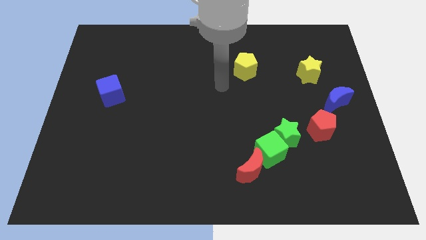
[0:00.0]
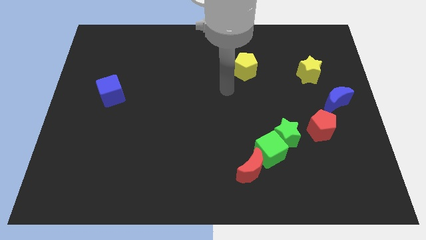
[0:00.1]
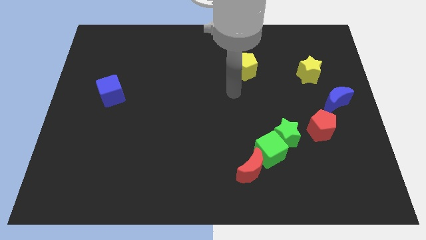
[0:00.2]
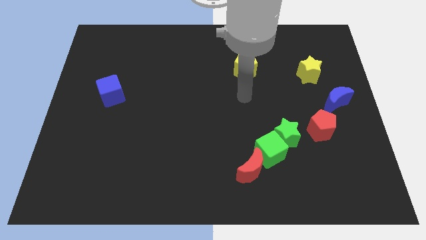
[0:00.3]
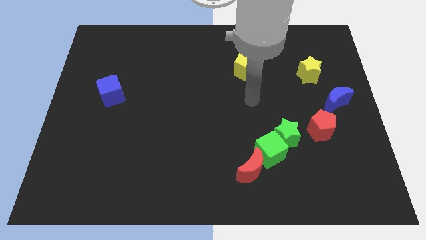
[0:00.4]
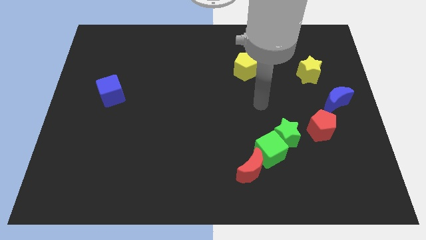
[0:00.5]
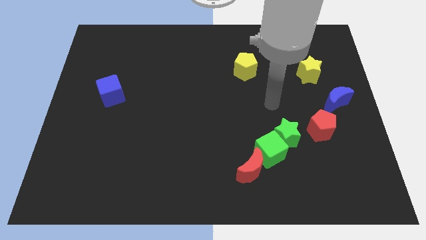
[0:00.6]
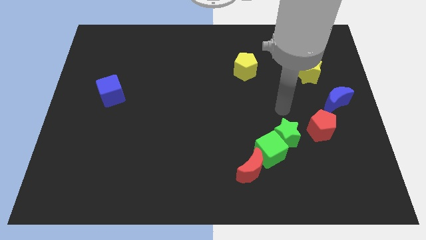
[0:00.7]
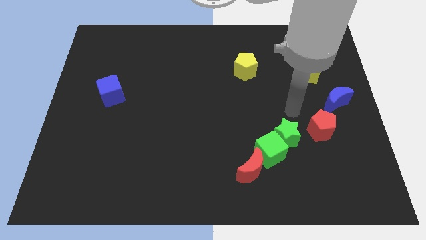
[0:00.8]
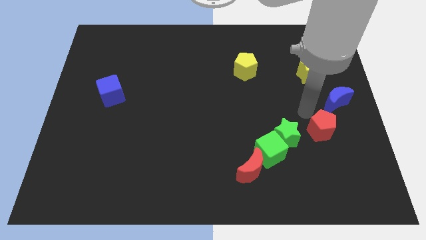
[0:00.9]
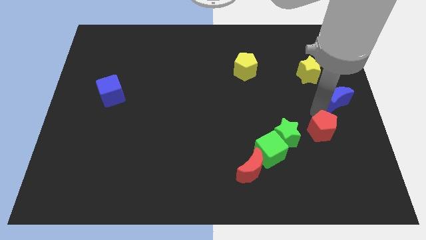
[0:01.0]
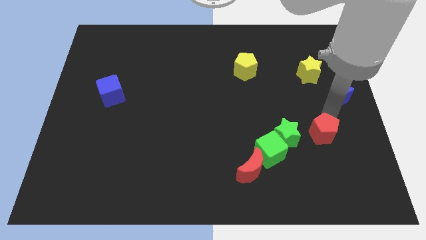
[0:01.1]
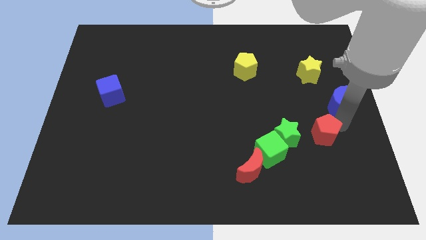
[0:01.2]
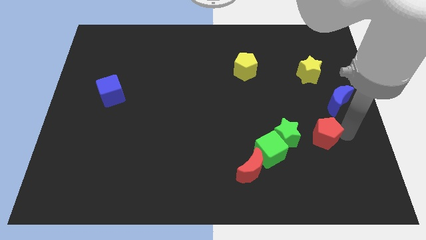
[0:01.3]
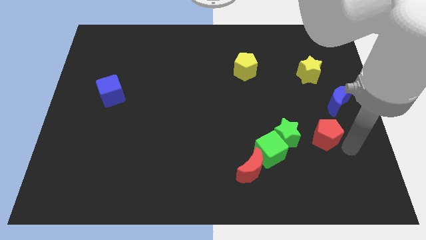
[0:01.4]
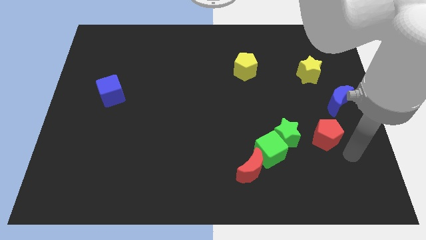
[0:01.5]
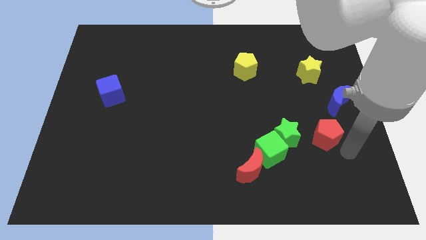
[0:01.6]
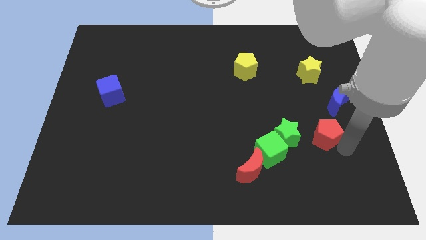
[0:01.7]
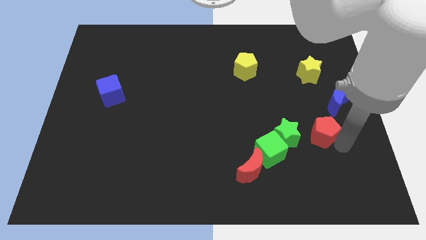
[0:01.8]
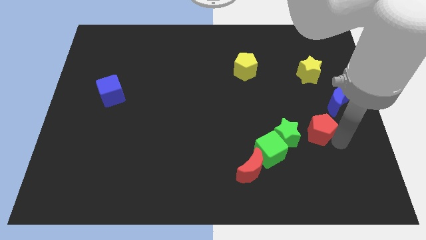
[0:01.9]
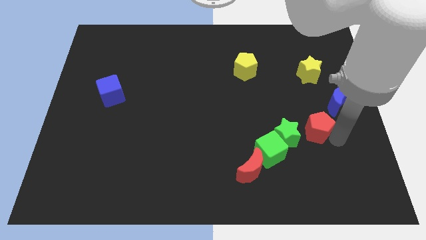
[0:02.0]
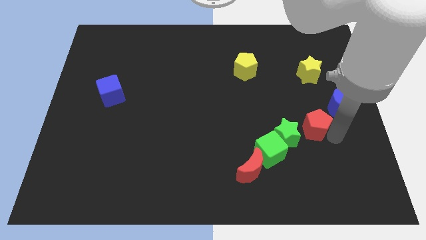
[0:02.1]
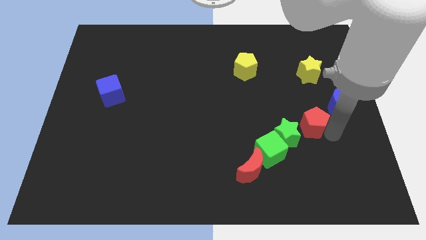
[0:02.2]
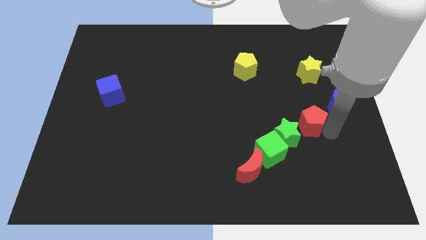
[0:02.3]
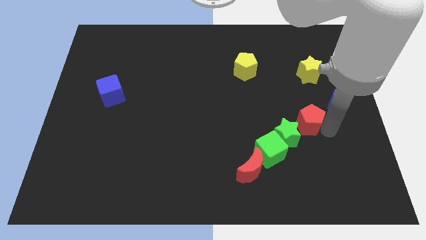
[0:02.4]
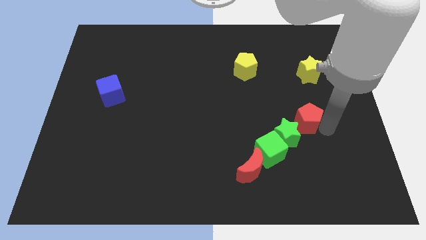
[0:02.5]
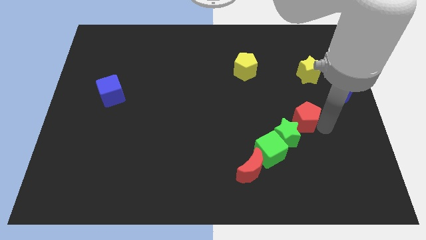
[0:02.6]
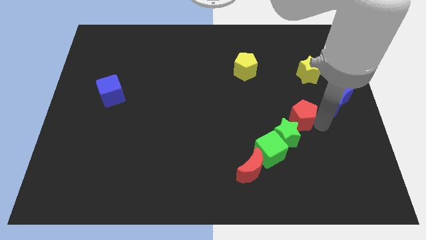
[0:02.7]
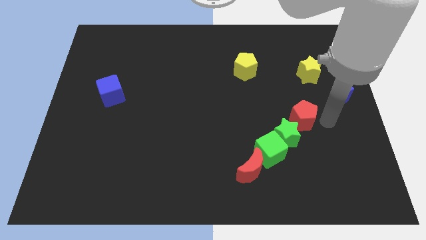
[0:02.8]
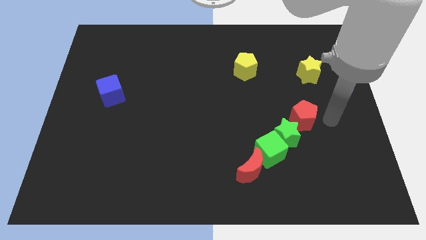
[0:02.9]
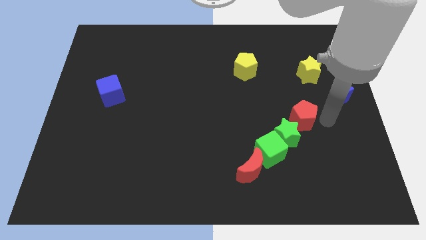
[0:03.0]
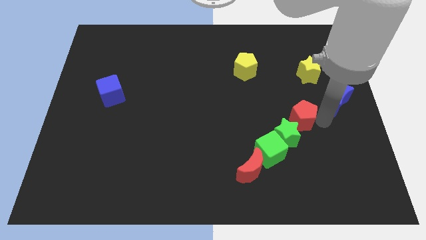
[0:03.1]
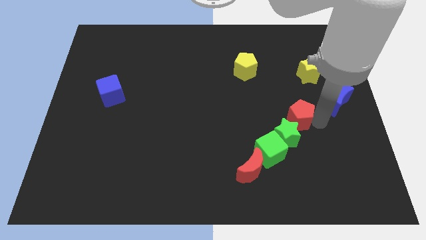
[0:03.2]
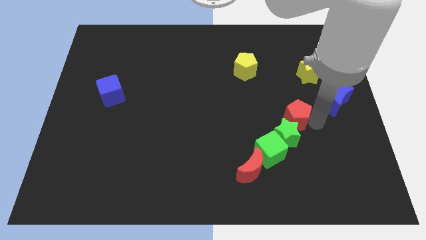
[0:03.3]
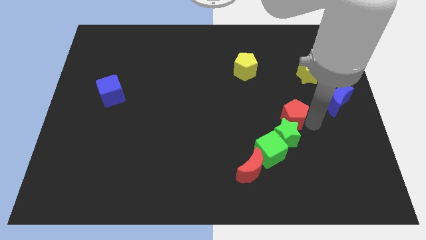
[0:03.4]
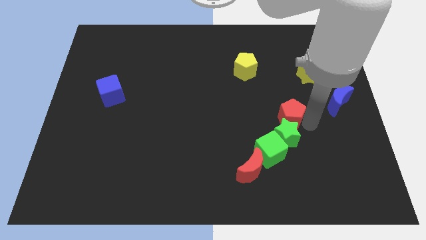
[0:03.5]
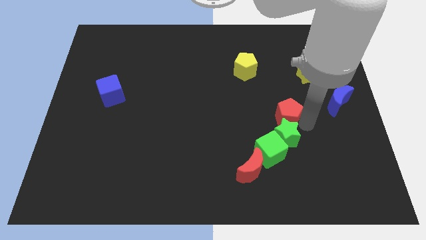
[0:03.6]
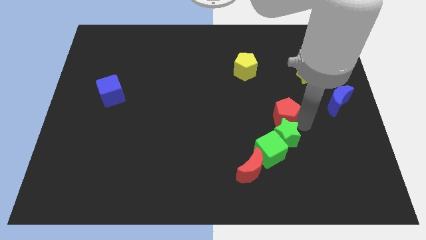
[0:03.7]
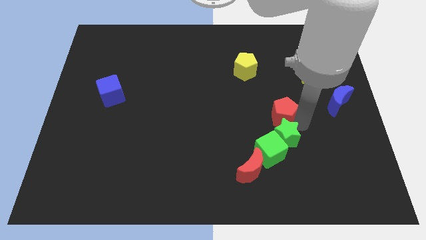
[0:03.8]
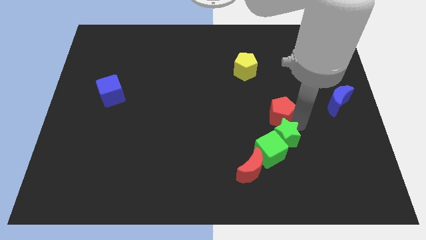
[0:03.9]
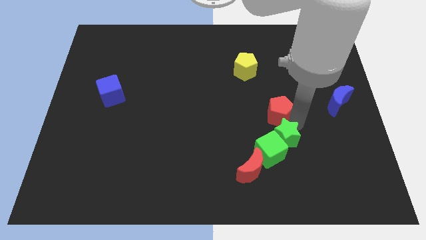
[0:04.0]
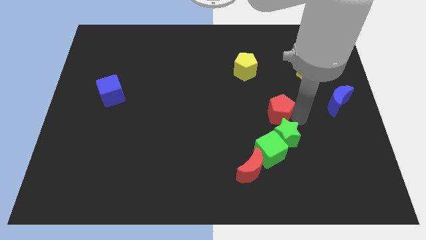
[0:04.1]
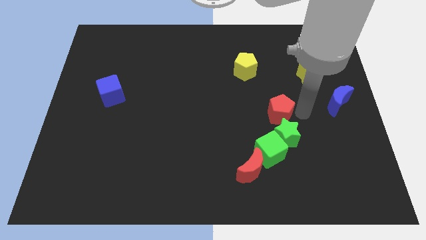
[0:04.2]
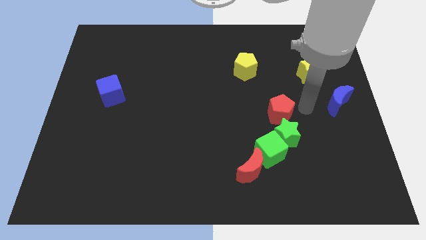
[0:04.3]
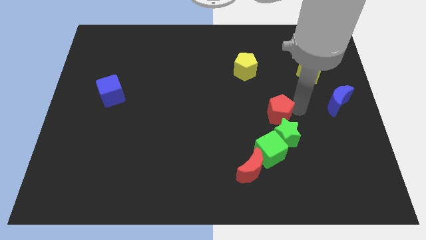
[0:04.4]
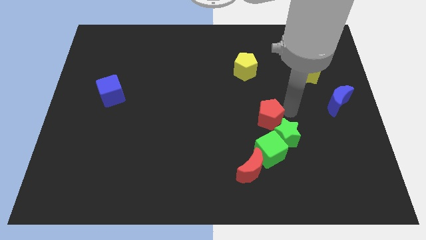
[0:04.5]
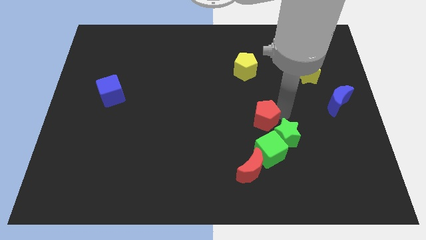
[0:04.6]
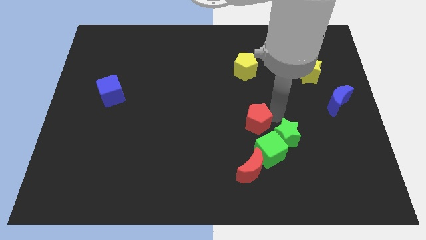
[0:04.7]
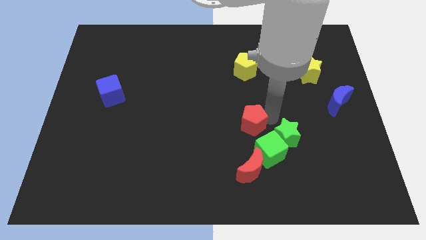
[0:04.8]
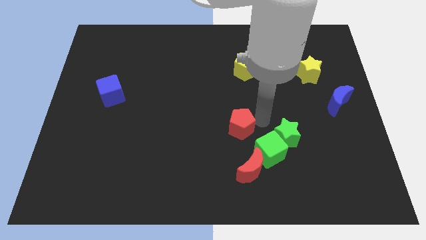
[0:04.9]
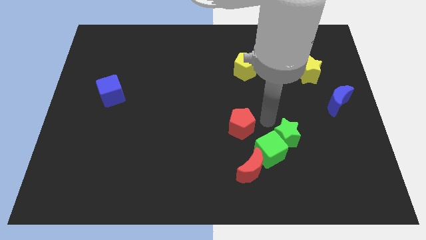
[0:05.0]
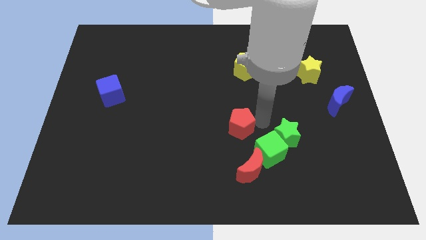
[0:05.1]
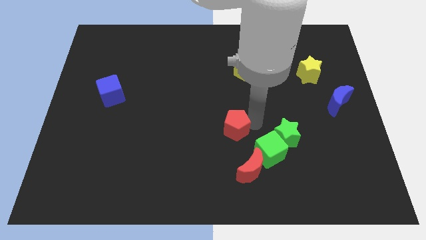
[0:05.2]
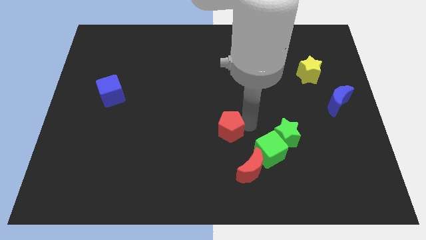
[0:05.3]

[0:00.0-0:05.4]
push the red pentagon to the left

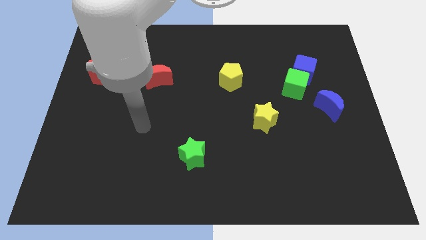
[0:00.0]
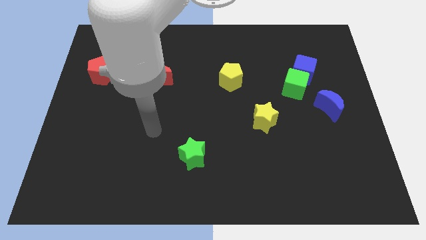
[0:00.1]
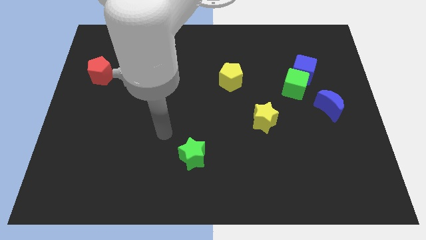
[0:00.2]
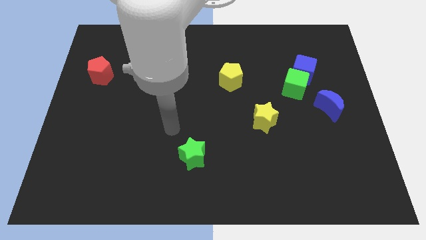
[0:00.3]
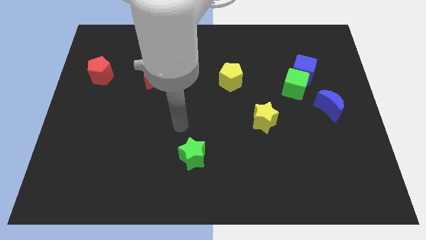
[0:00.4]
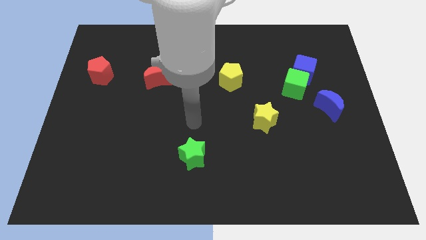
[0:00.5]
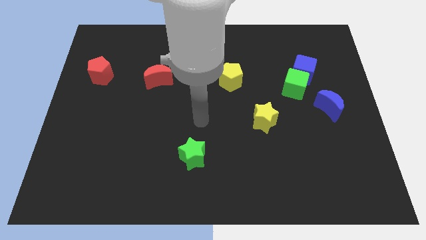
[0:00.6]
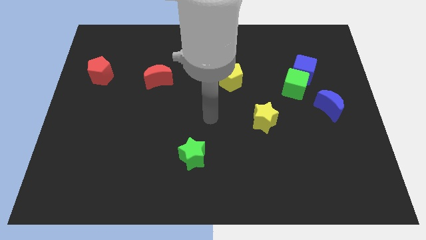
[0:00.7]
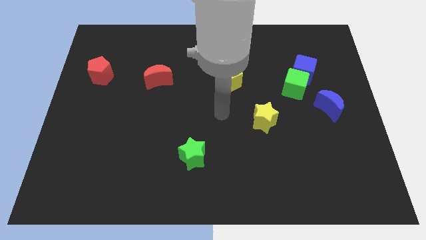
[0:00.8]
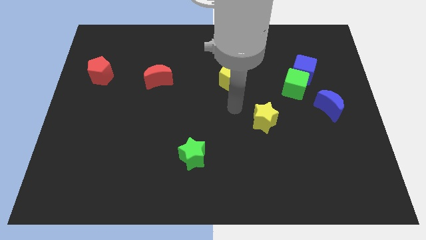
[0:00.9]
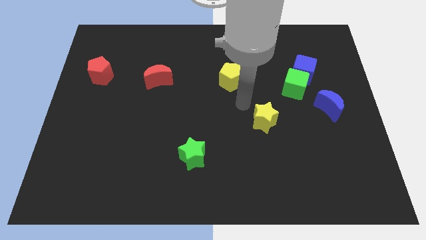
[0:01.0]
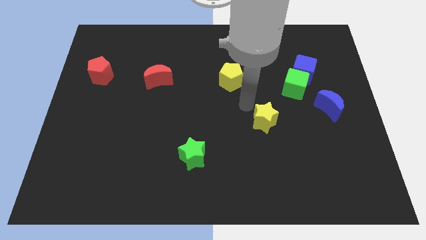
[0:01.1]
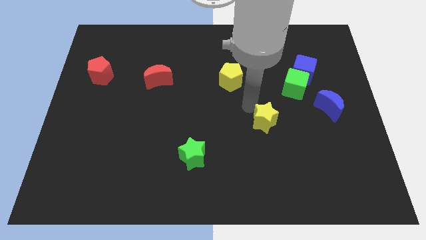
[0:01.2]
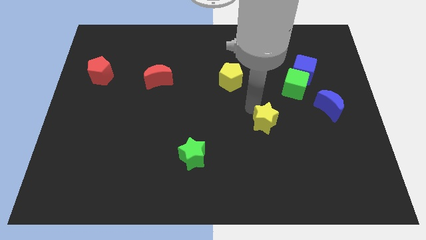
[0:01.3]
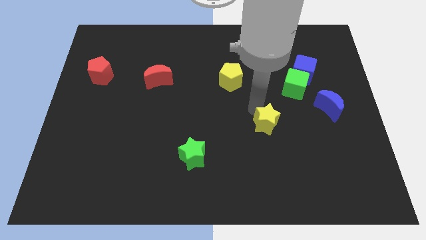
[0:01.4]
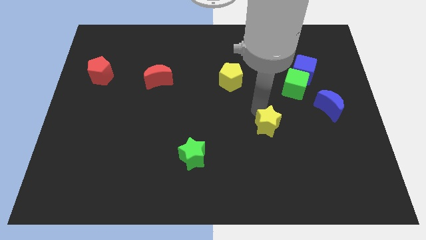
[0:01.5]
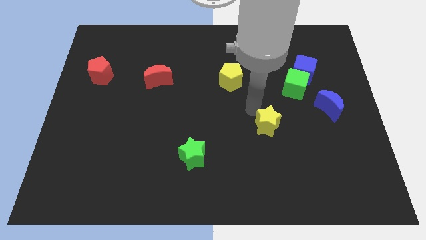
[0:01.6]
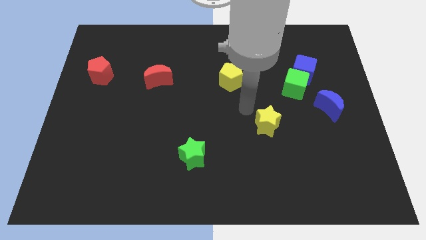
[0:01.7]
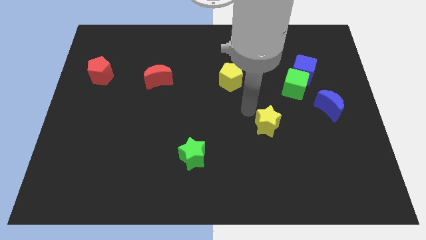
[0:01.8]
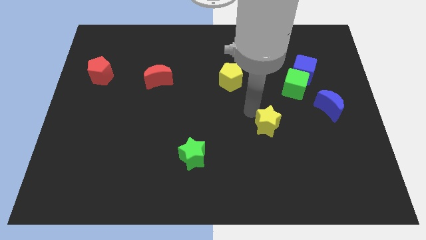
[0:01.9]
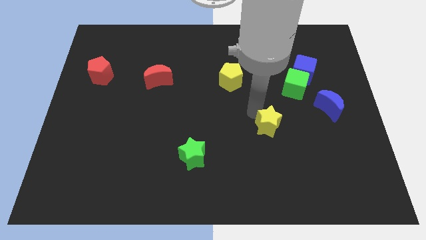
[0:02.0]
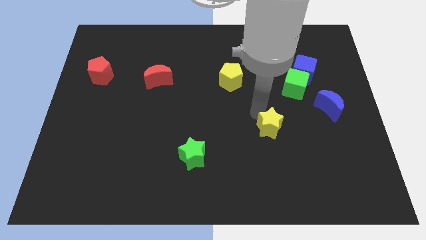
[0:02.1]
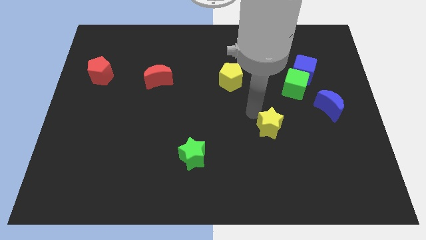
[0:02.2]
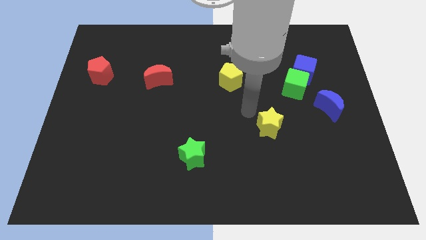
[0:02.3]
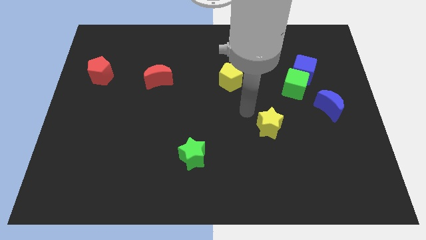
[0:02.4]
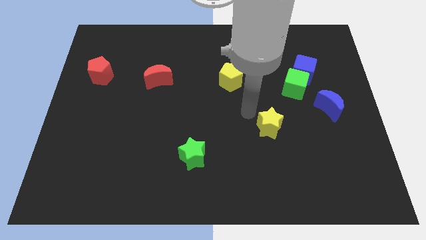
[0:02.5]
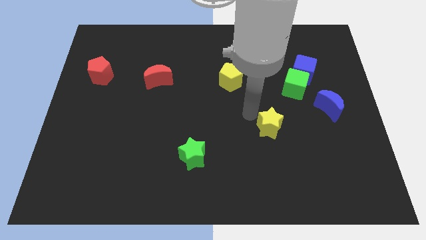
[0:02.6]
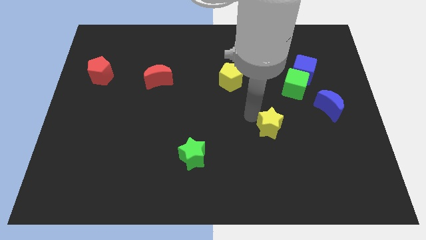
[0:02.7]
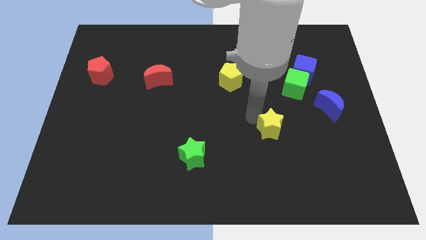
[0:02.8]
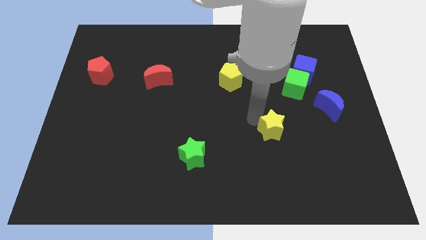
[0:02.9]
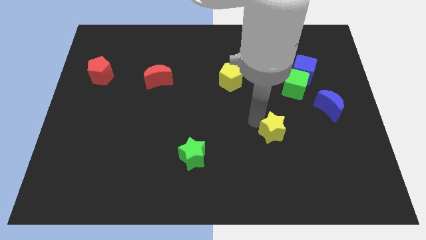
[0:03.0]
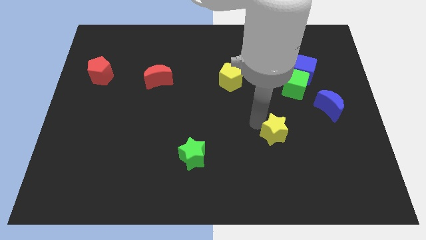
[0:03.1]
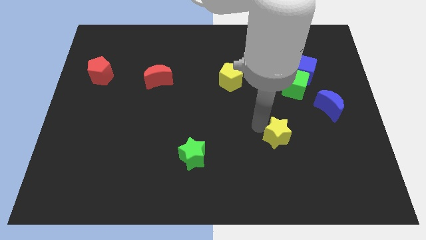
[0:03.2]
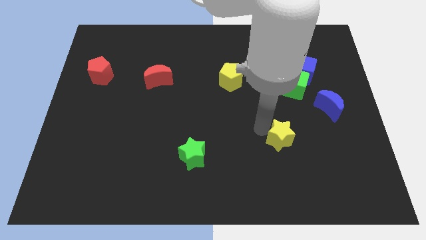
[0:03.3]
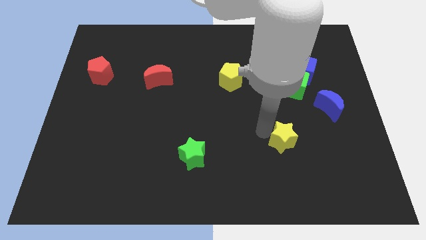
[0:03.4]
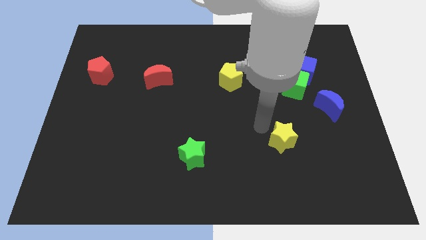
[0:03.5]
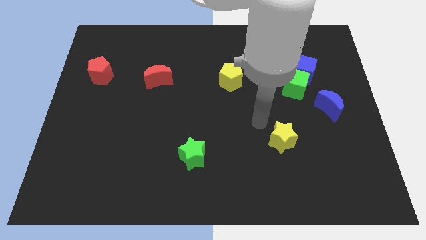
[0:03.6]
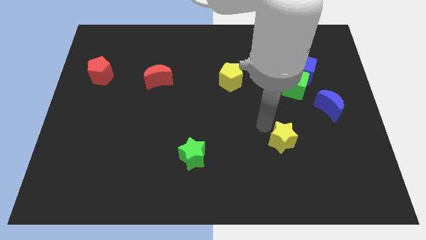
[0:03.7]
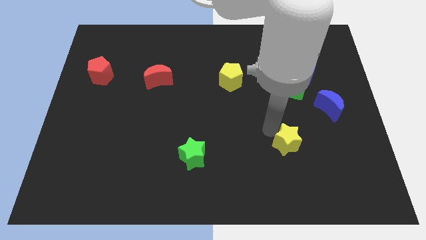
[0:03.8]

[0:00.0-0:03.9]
move the yellow star a little bit down and to the right diagonally
